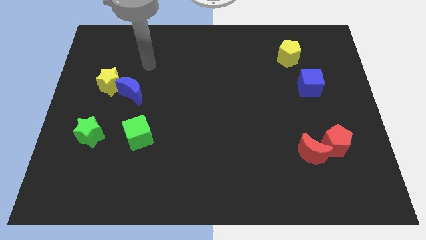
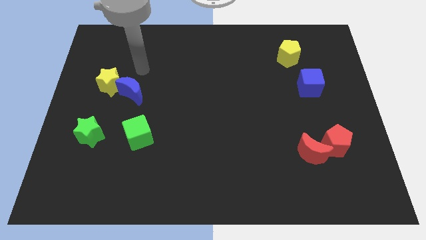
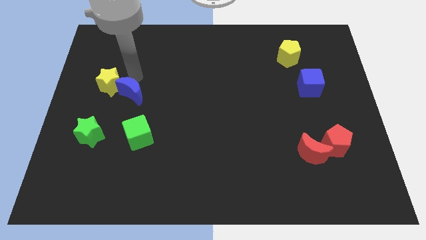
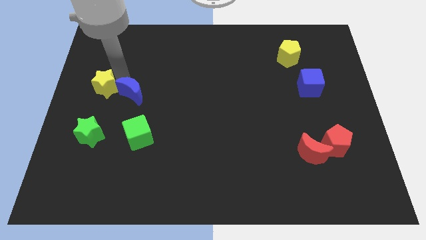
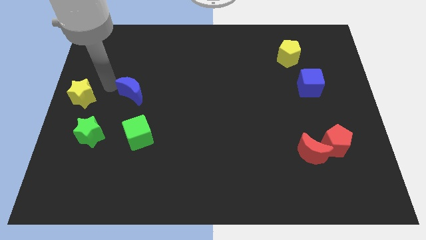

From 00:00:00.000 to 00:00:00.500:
pull the blue moon apart from the yellow star

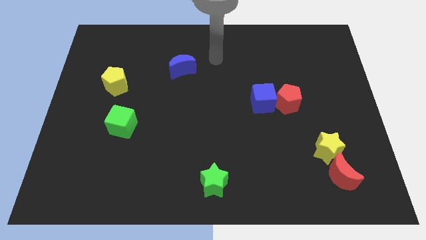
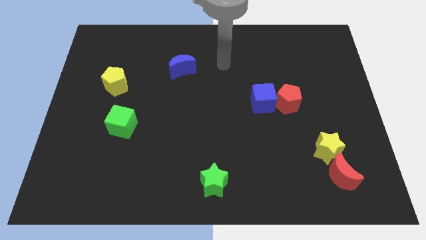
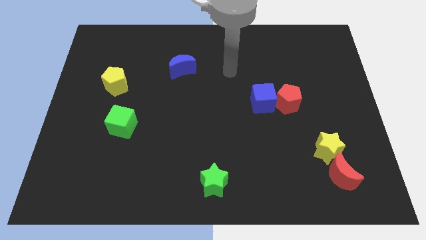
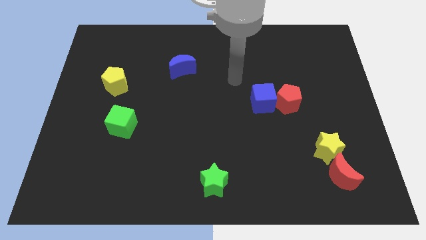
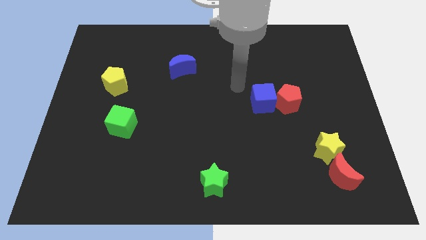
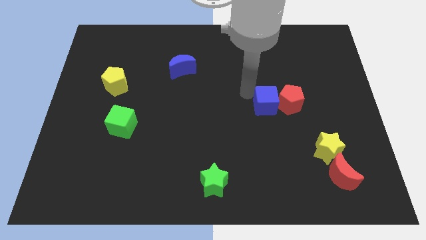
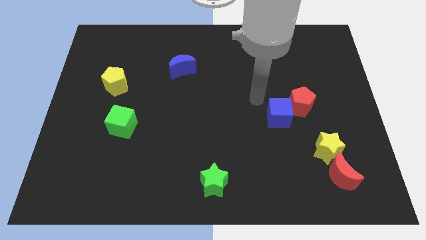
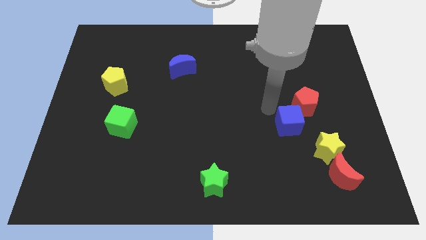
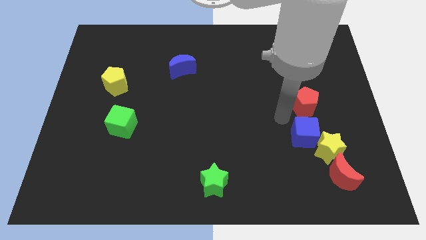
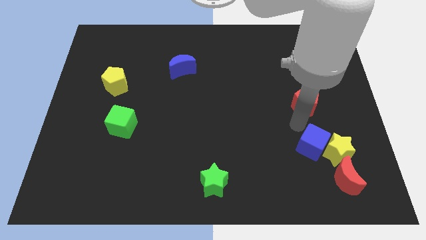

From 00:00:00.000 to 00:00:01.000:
move the red pentagon away from the blue cube

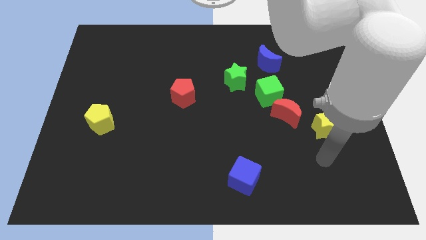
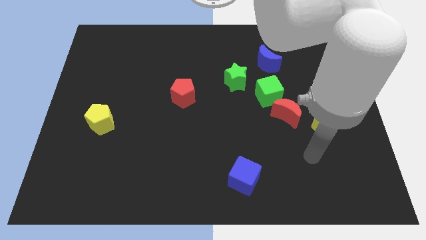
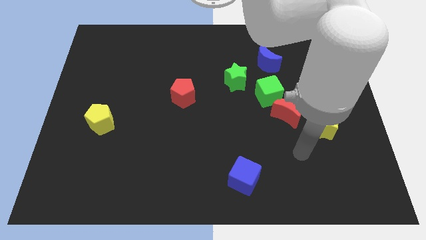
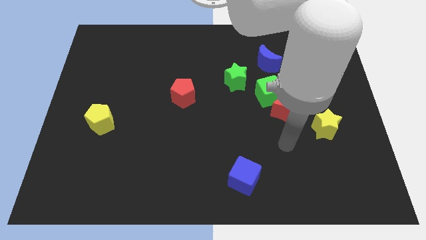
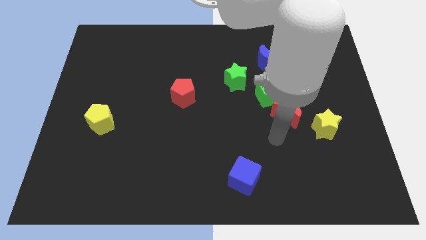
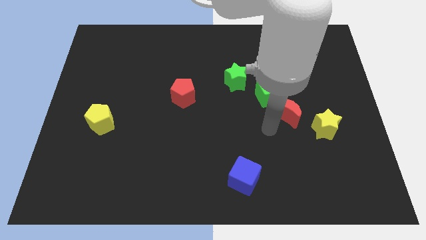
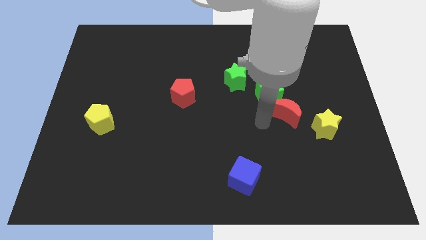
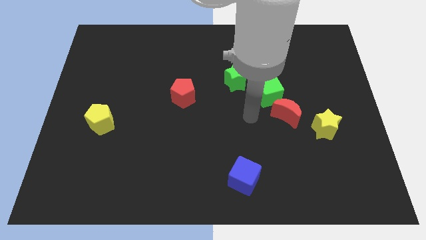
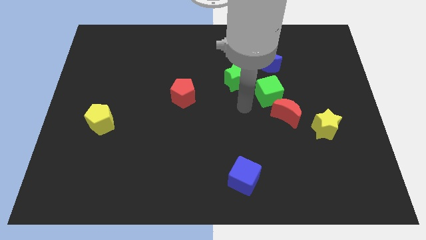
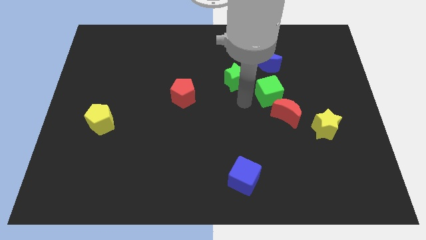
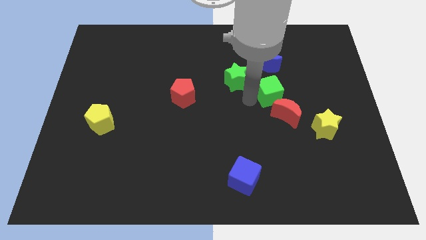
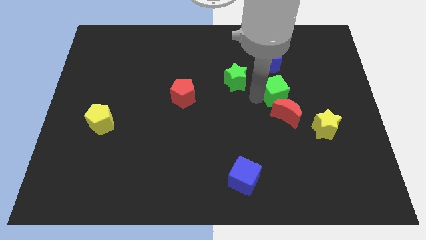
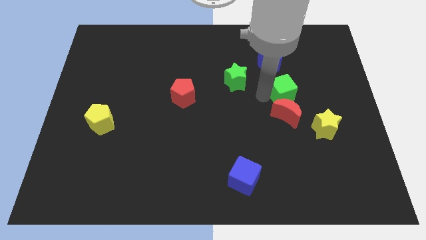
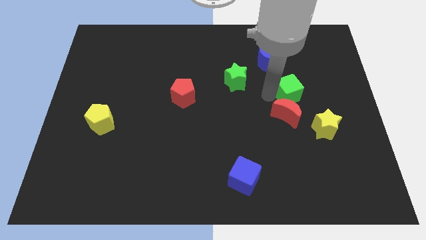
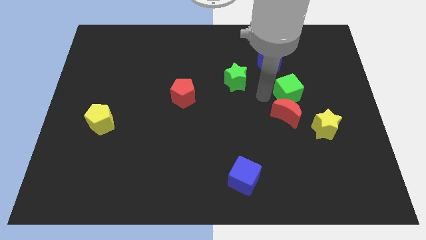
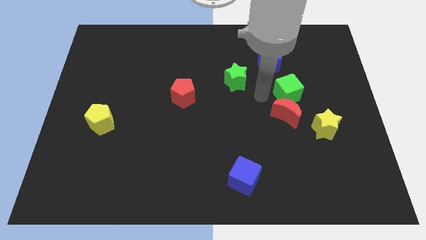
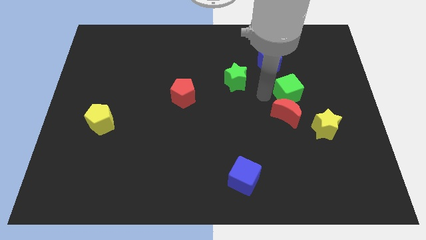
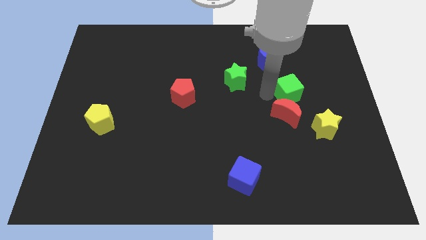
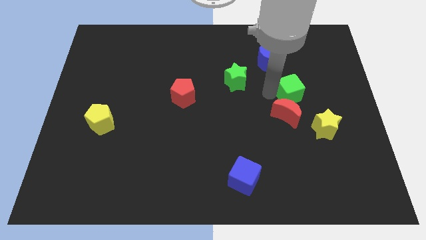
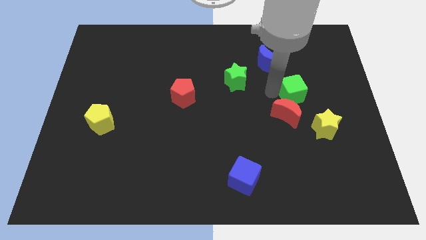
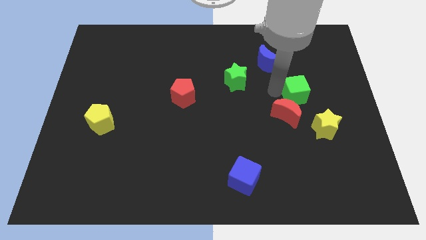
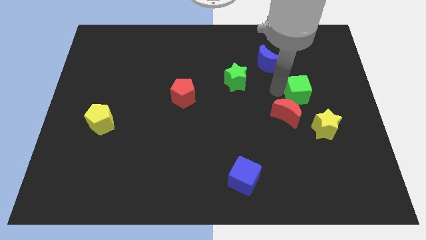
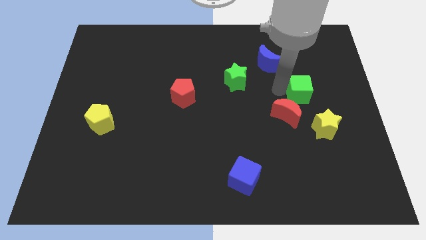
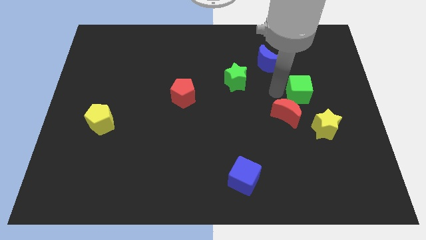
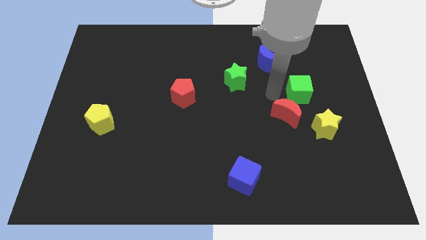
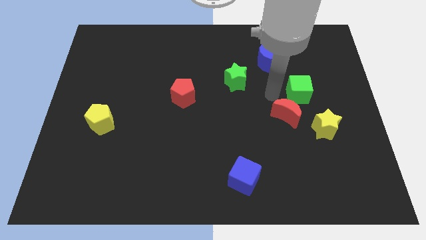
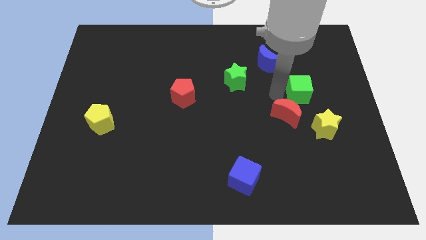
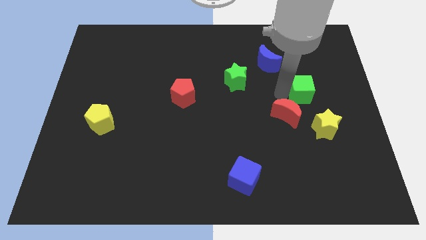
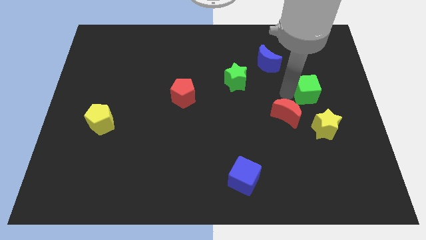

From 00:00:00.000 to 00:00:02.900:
separate the green cube from the red moon and green star

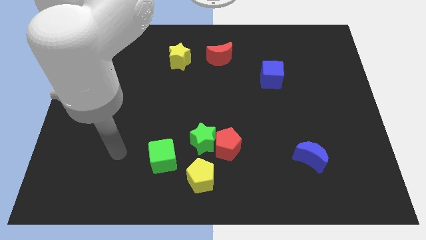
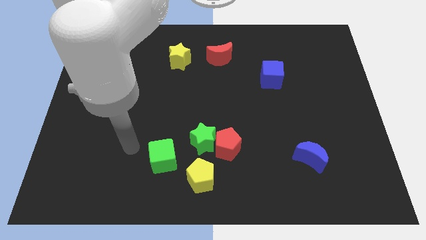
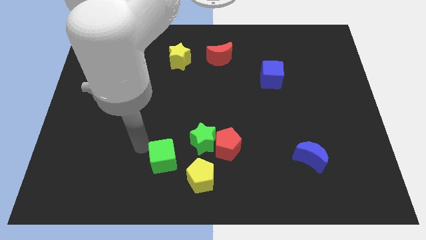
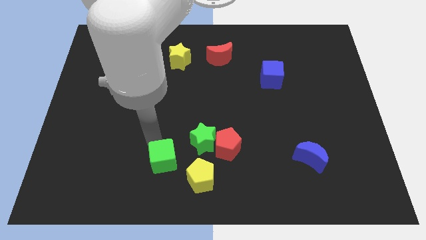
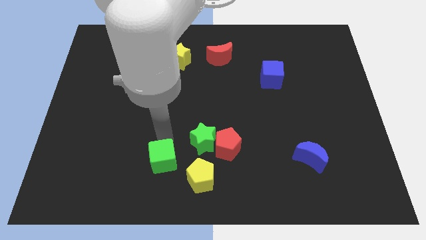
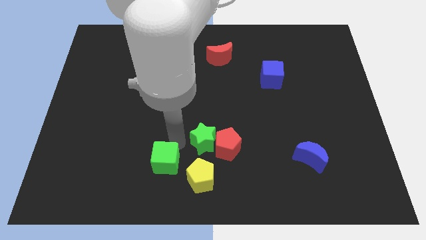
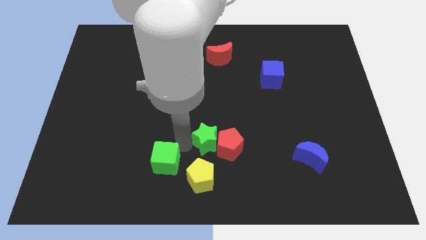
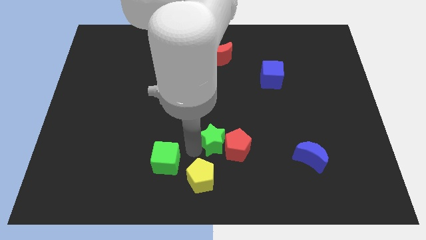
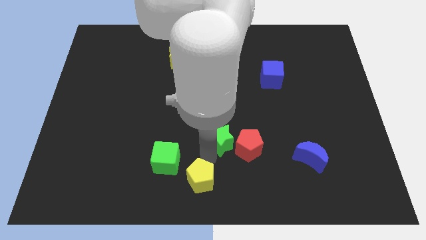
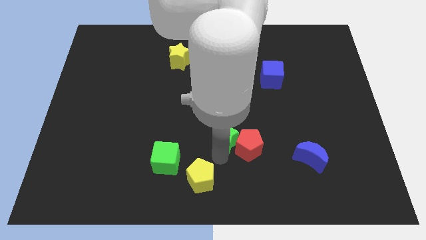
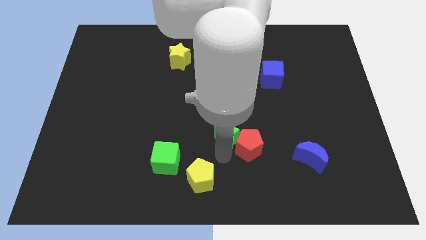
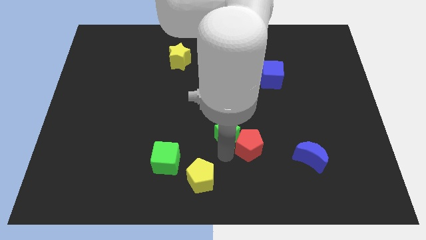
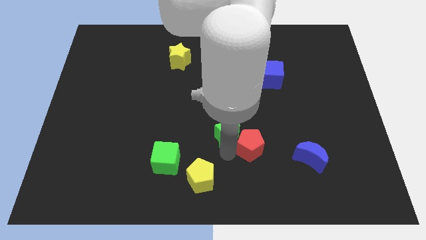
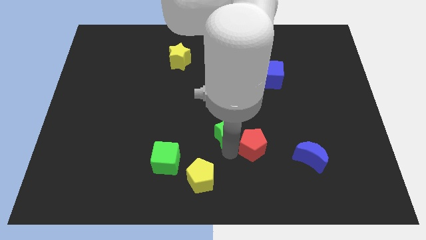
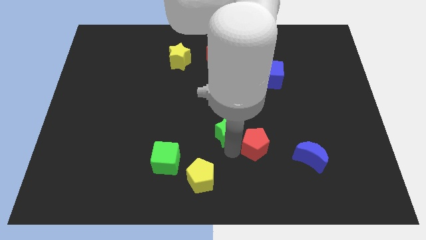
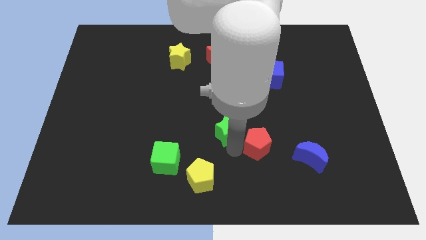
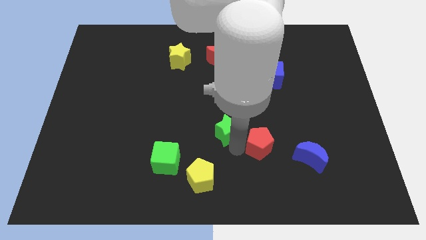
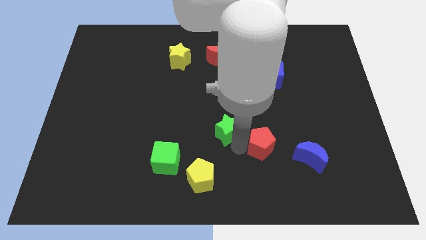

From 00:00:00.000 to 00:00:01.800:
move the red pentagon away from the green star and yellow pentagon

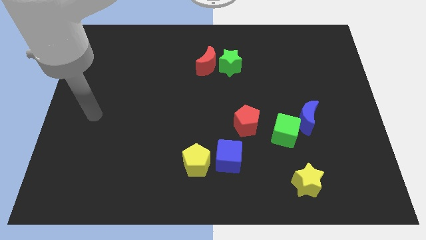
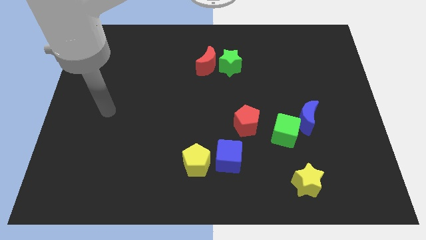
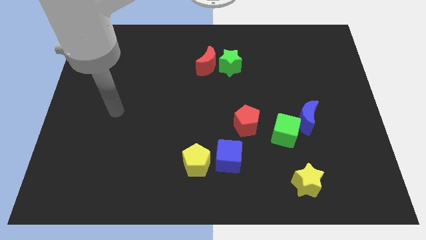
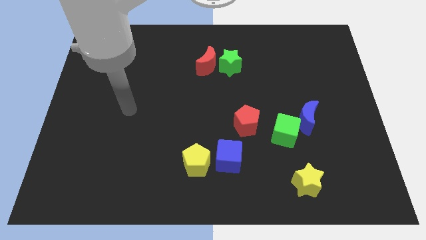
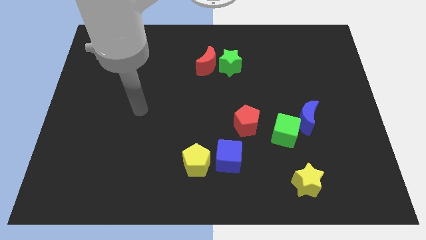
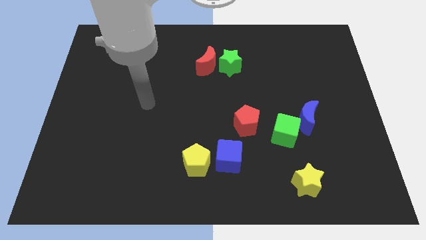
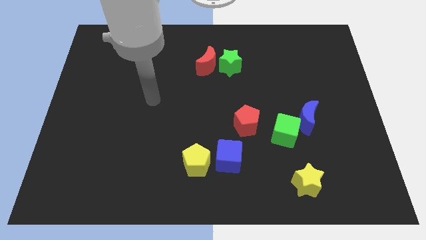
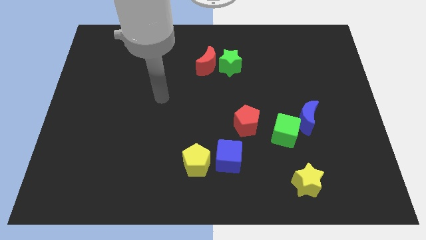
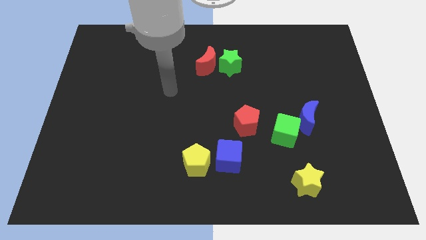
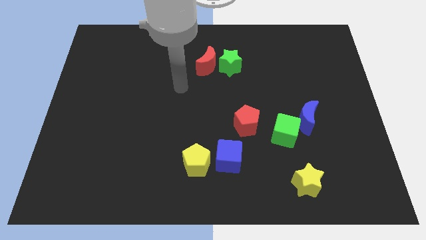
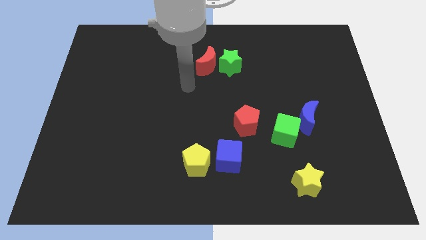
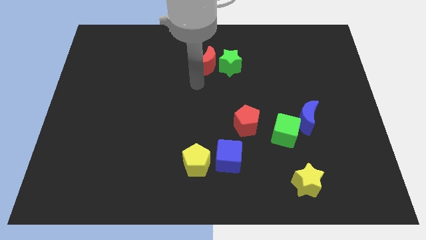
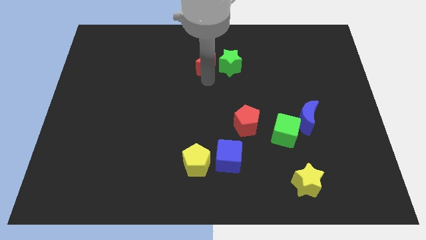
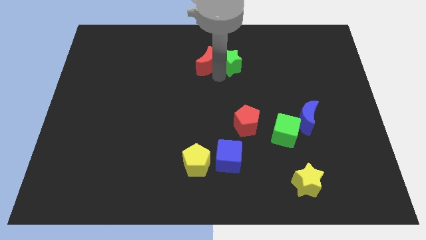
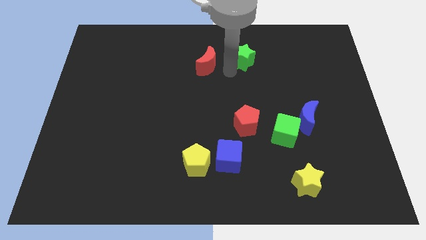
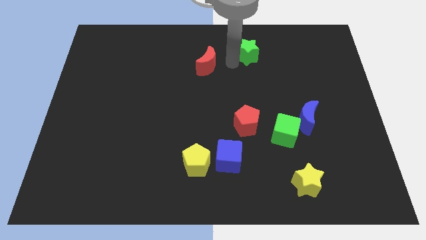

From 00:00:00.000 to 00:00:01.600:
pull the red moon apart from the green star

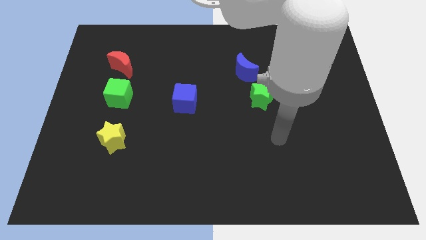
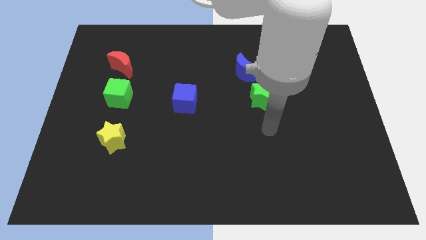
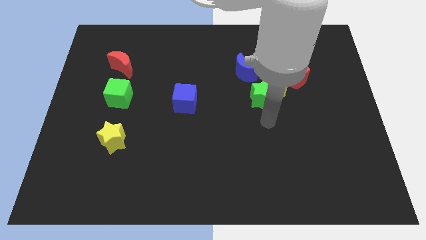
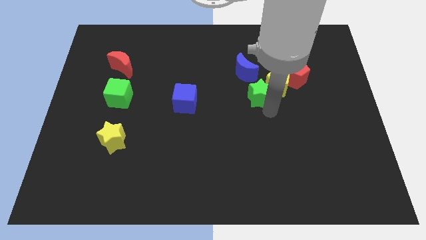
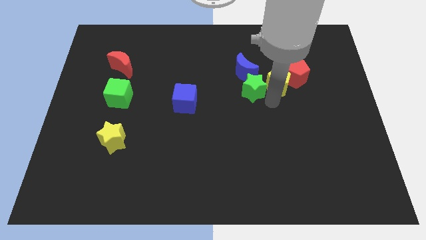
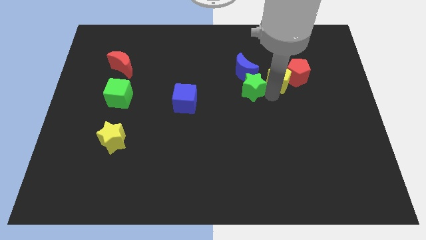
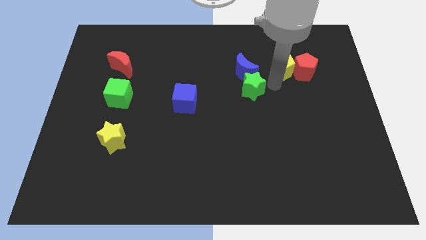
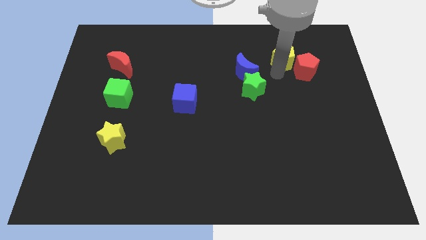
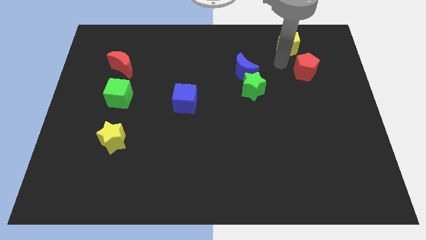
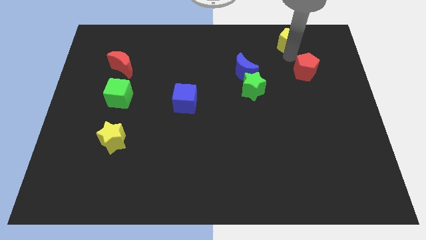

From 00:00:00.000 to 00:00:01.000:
move the red pentagon away from the yellow pentagon

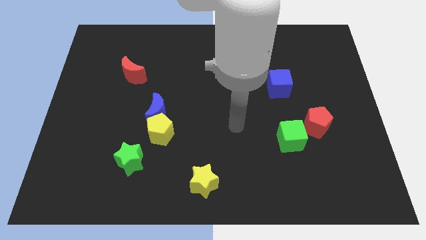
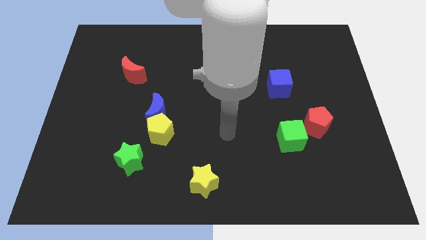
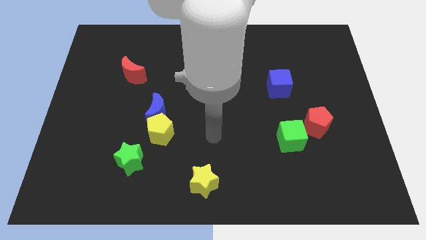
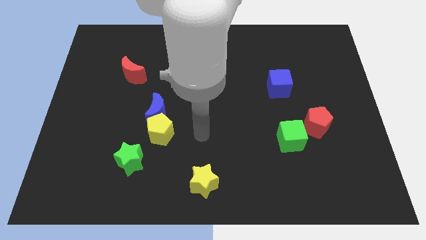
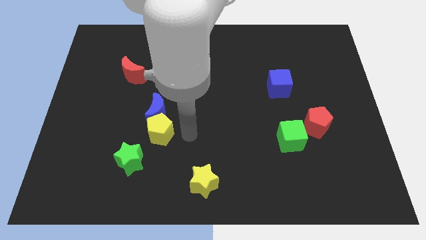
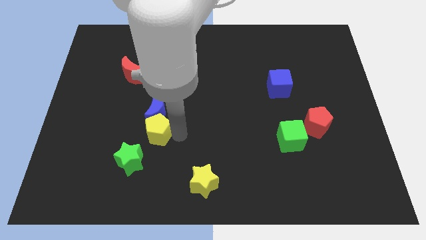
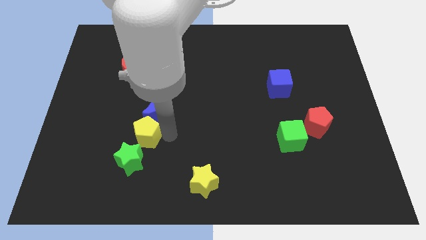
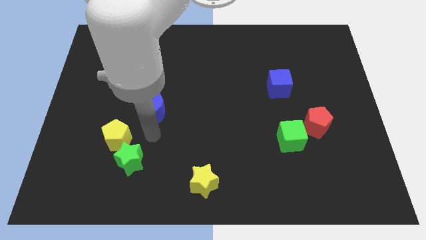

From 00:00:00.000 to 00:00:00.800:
move the blue moon away from the yellow pentagon
